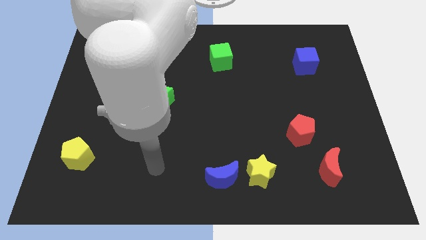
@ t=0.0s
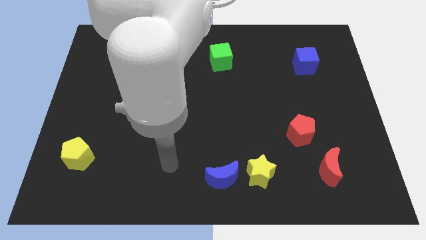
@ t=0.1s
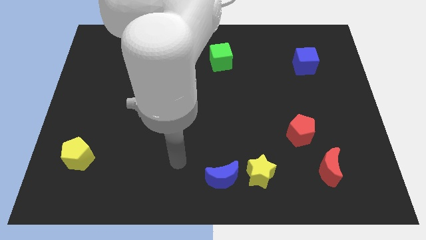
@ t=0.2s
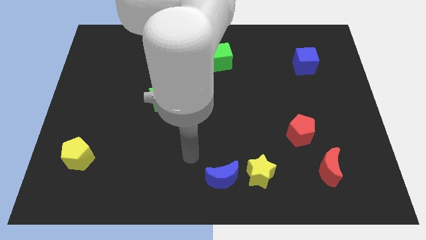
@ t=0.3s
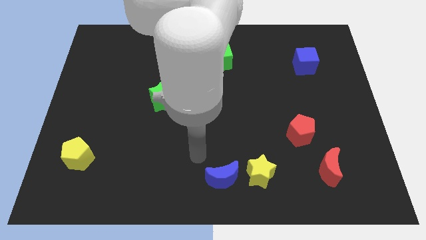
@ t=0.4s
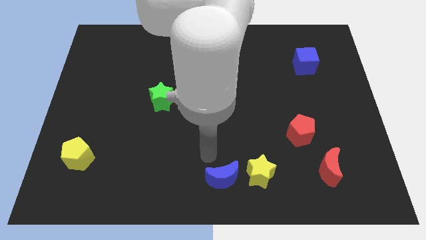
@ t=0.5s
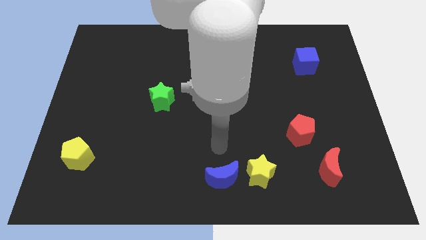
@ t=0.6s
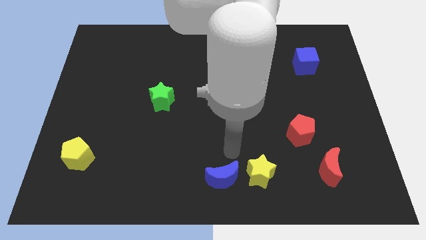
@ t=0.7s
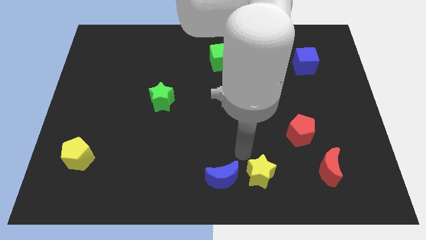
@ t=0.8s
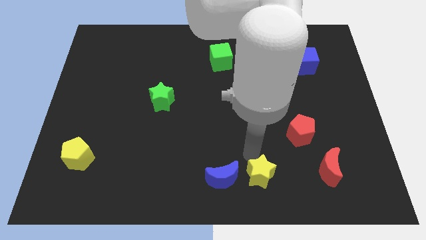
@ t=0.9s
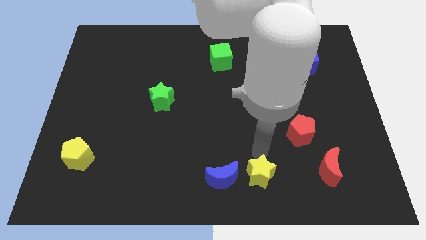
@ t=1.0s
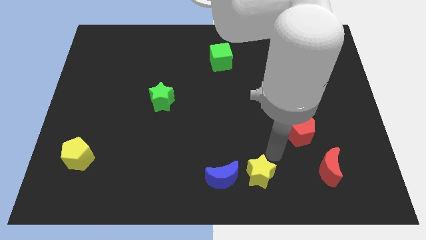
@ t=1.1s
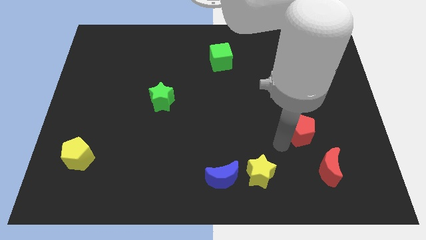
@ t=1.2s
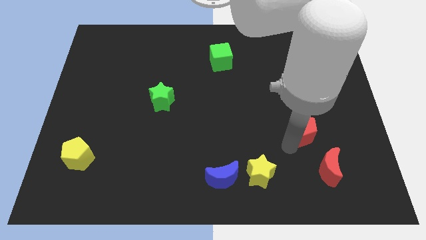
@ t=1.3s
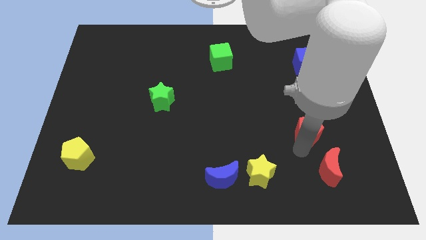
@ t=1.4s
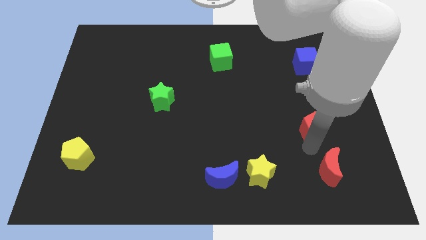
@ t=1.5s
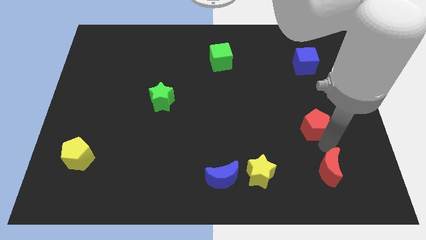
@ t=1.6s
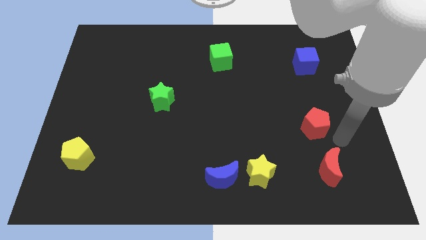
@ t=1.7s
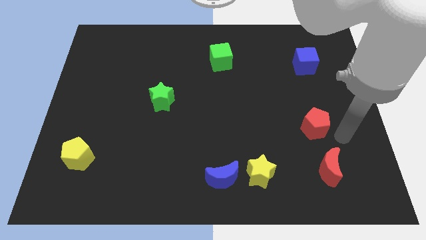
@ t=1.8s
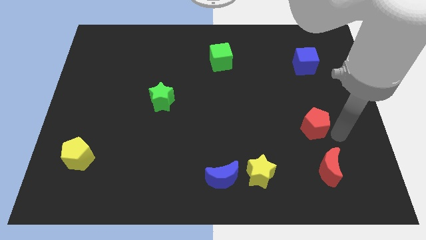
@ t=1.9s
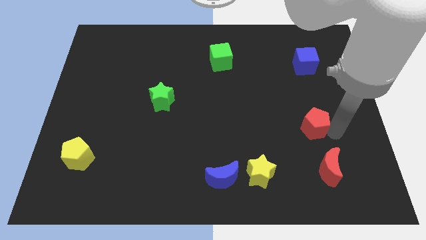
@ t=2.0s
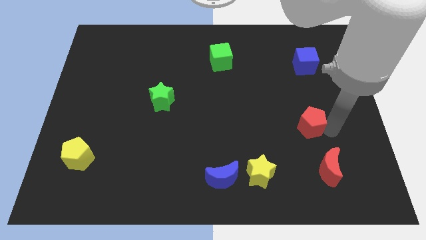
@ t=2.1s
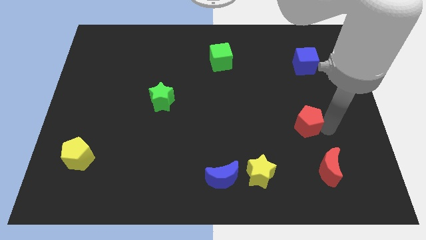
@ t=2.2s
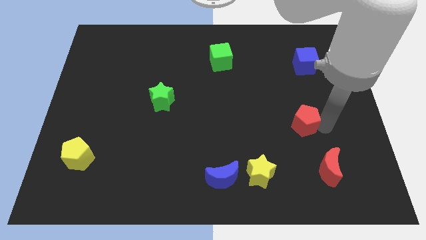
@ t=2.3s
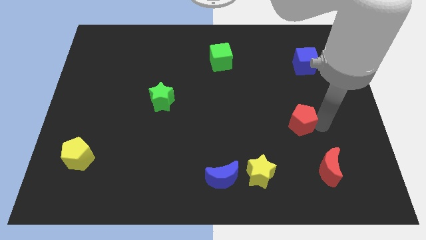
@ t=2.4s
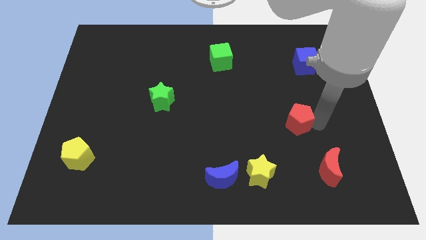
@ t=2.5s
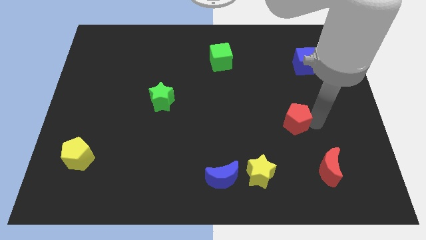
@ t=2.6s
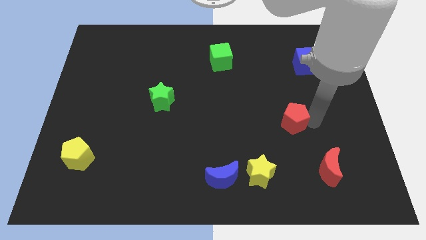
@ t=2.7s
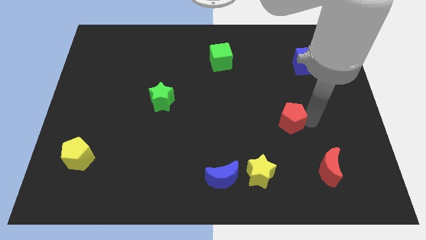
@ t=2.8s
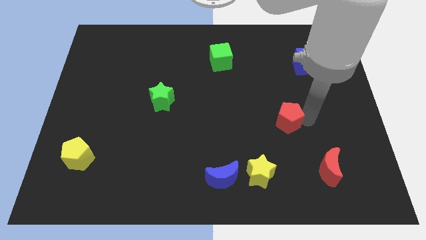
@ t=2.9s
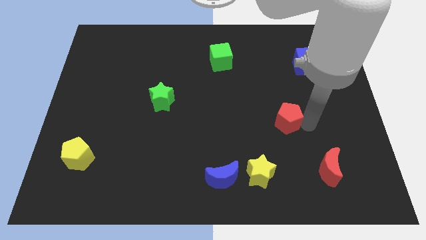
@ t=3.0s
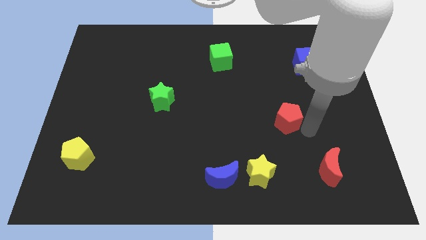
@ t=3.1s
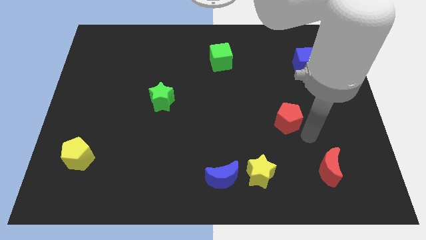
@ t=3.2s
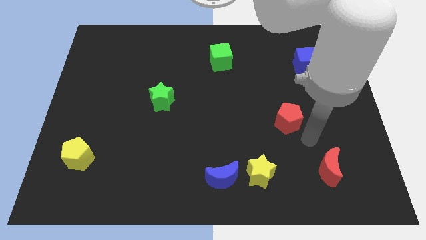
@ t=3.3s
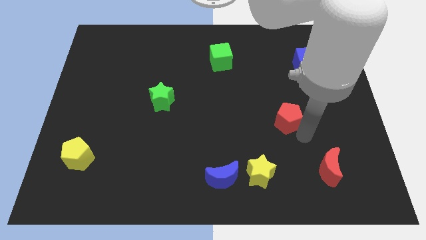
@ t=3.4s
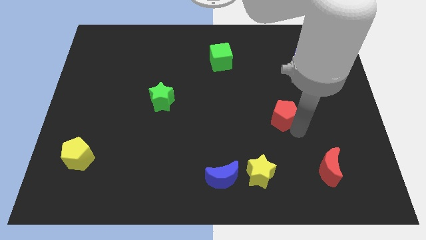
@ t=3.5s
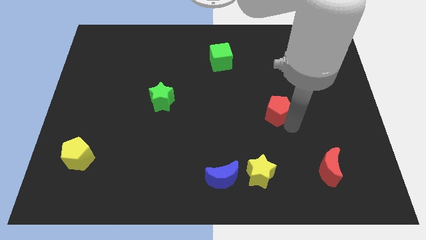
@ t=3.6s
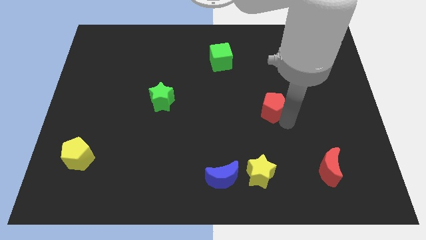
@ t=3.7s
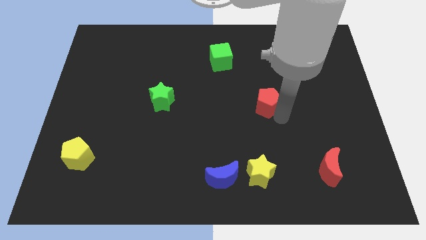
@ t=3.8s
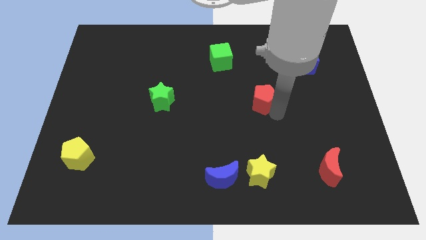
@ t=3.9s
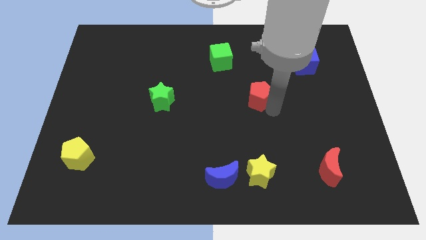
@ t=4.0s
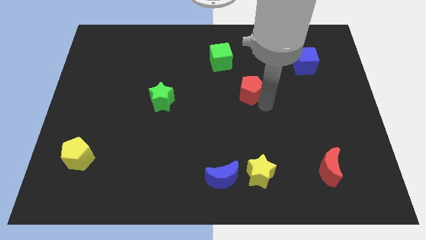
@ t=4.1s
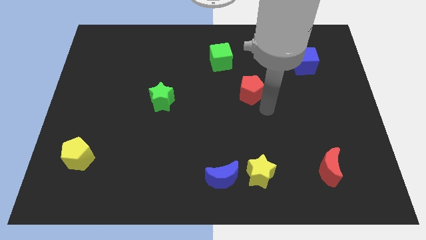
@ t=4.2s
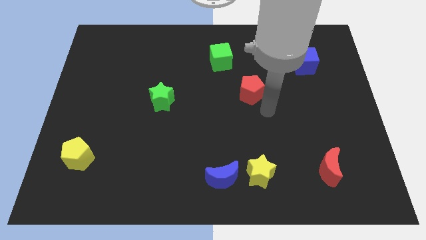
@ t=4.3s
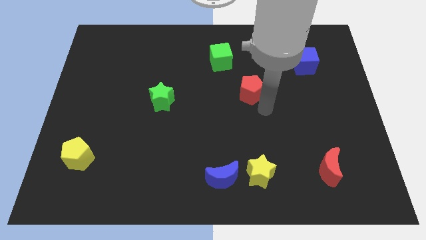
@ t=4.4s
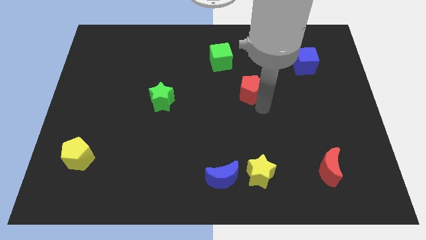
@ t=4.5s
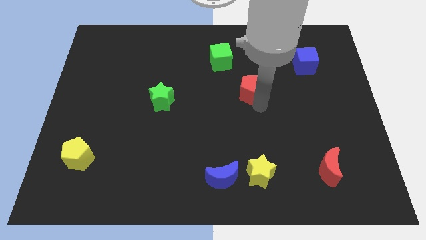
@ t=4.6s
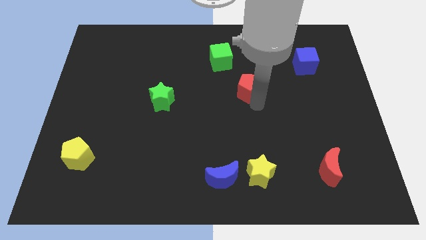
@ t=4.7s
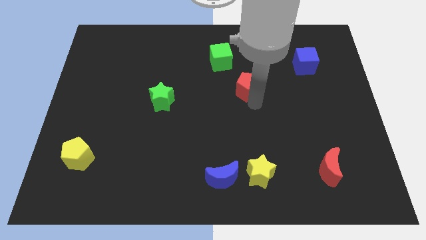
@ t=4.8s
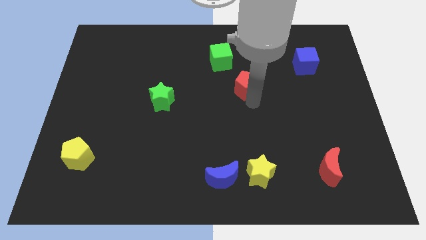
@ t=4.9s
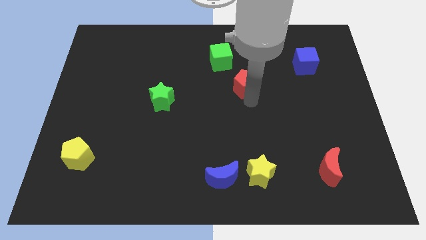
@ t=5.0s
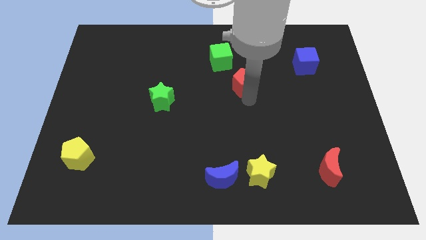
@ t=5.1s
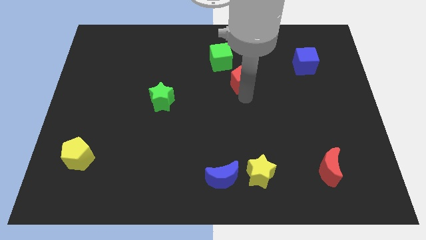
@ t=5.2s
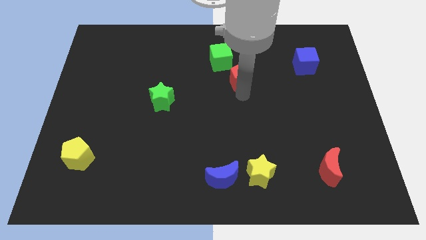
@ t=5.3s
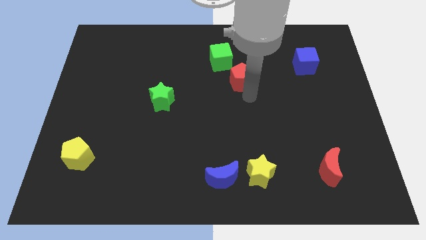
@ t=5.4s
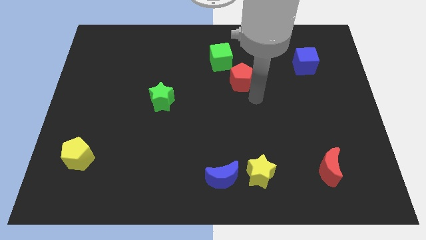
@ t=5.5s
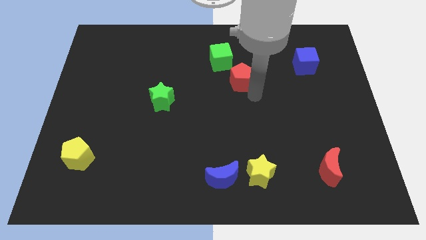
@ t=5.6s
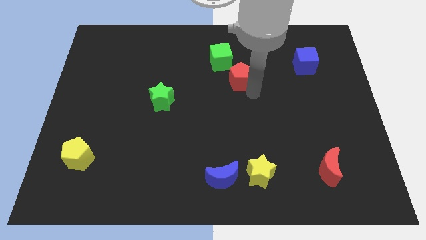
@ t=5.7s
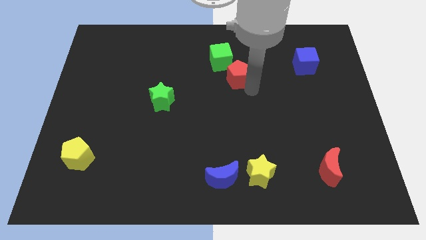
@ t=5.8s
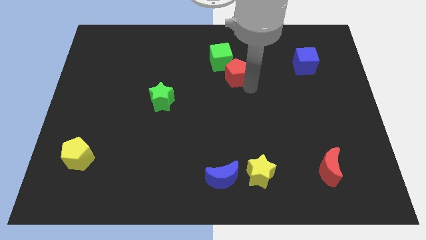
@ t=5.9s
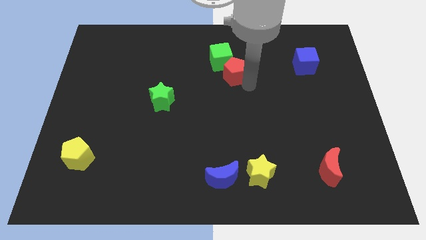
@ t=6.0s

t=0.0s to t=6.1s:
slide the red pentagon close to the green cube

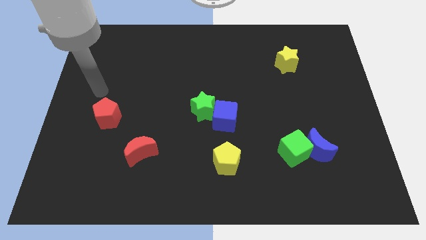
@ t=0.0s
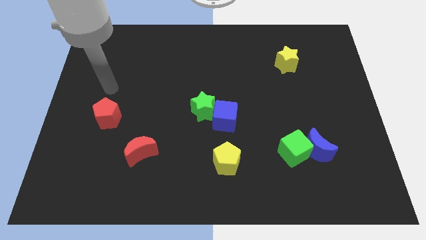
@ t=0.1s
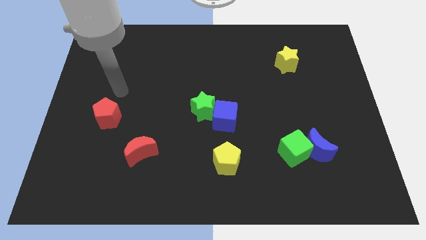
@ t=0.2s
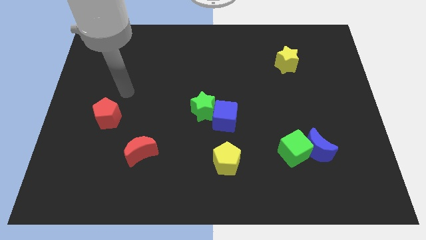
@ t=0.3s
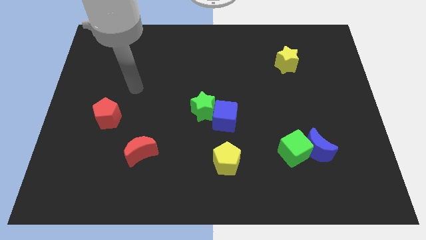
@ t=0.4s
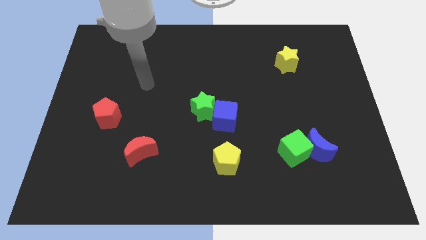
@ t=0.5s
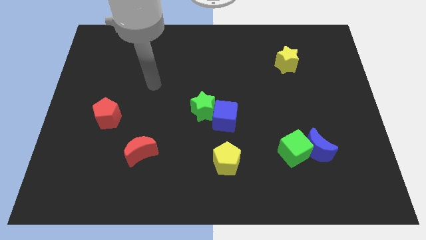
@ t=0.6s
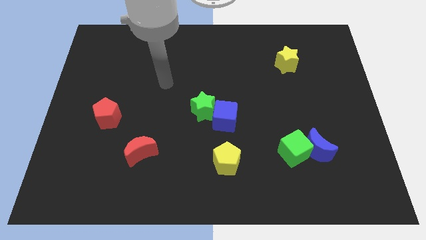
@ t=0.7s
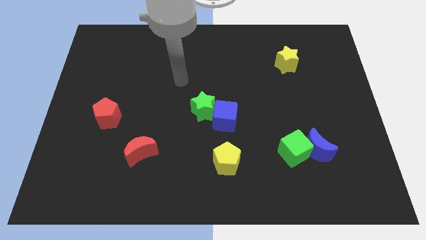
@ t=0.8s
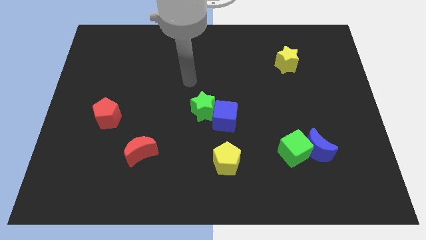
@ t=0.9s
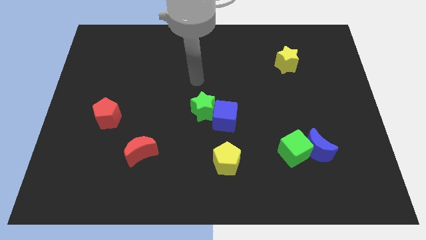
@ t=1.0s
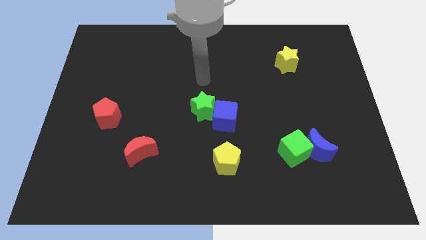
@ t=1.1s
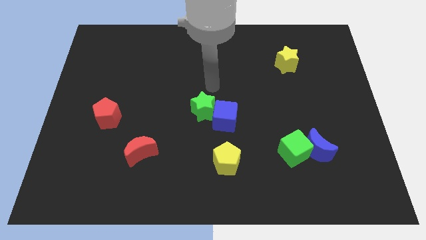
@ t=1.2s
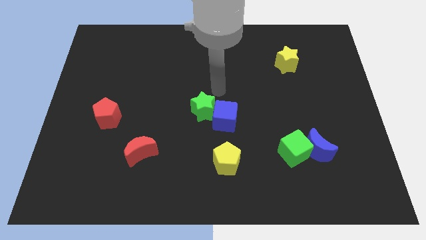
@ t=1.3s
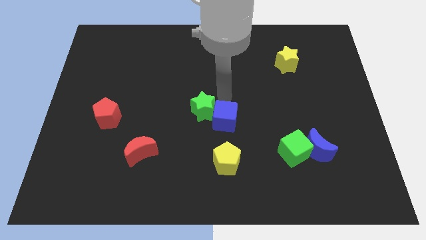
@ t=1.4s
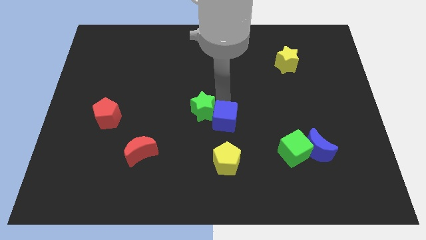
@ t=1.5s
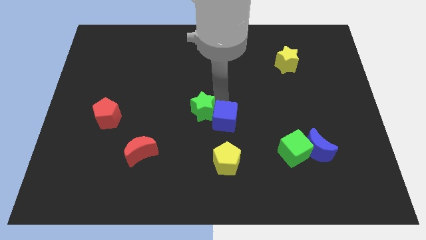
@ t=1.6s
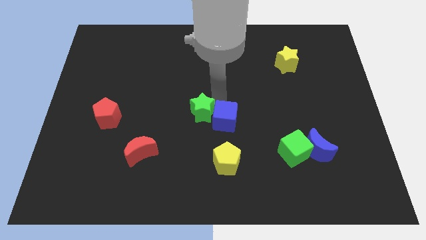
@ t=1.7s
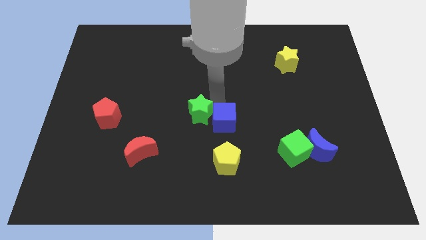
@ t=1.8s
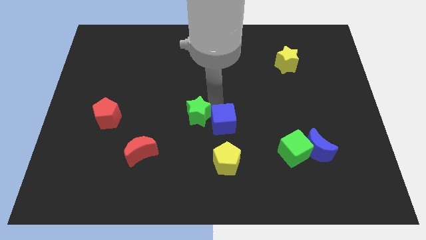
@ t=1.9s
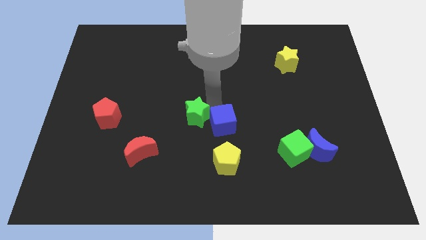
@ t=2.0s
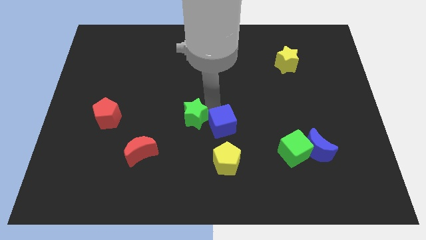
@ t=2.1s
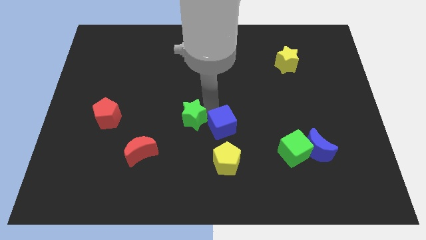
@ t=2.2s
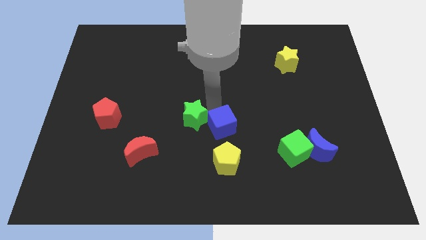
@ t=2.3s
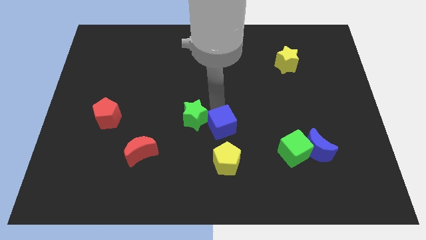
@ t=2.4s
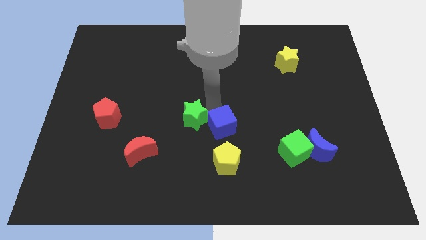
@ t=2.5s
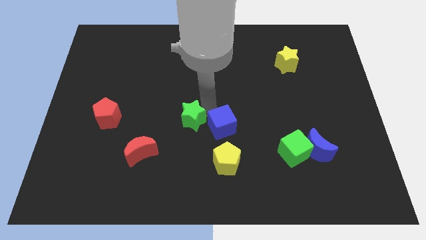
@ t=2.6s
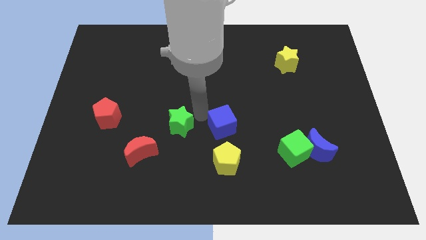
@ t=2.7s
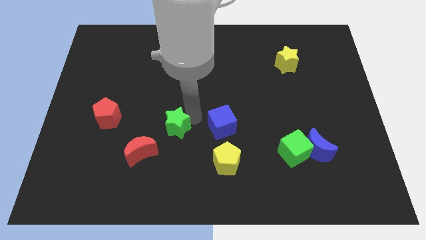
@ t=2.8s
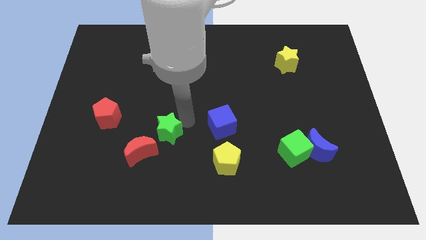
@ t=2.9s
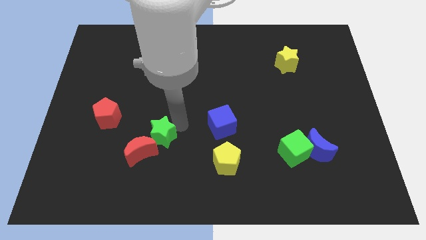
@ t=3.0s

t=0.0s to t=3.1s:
slide the green star to the red moon
